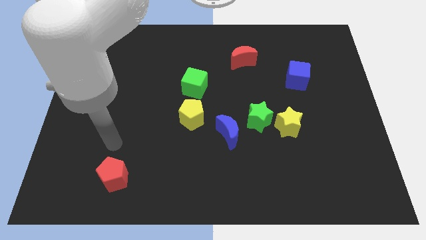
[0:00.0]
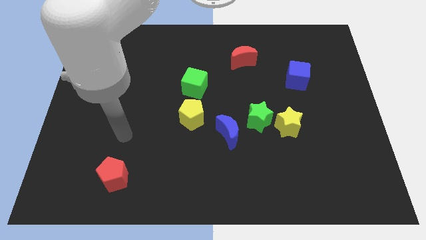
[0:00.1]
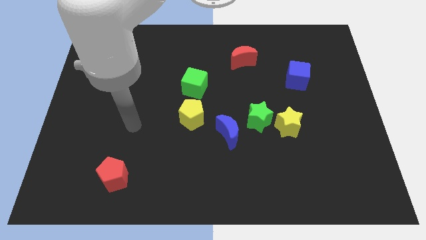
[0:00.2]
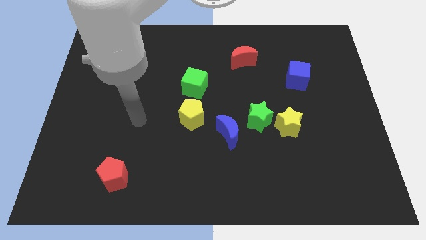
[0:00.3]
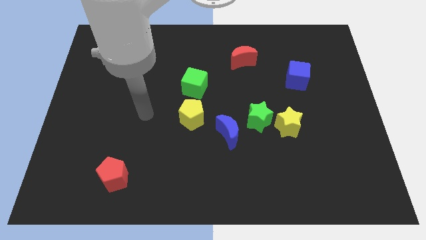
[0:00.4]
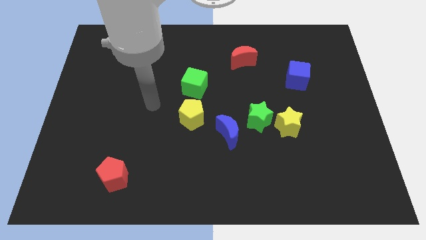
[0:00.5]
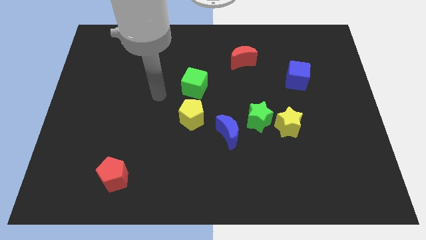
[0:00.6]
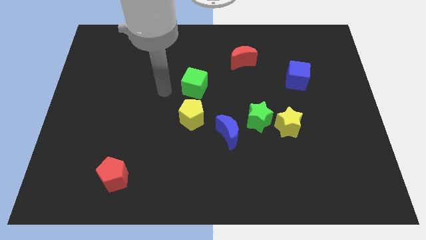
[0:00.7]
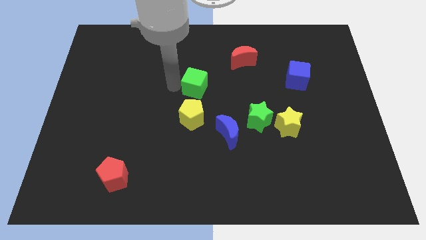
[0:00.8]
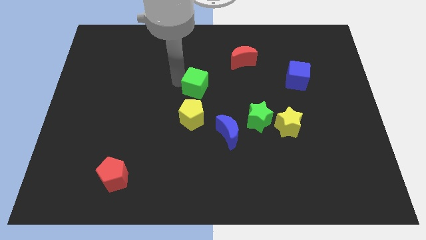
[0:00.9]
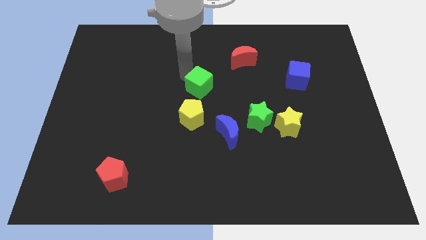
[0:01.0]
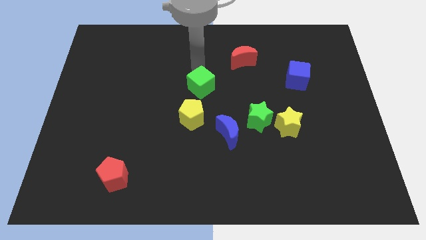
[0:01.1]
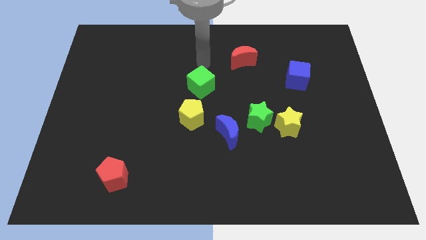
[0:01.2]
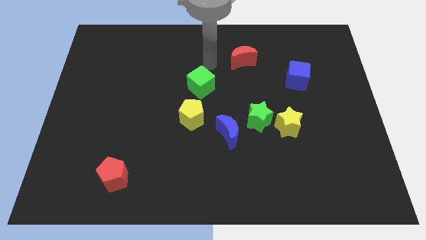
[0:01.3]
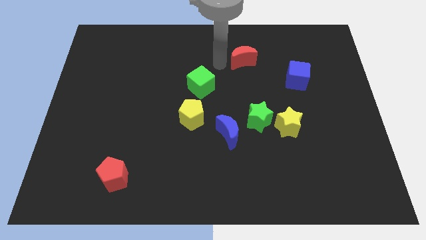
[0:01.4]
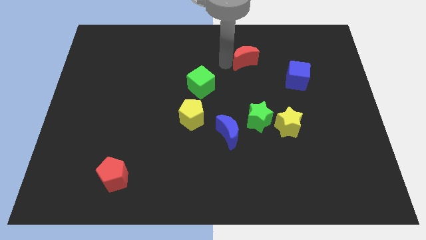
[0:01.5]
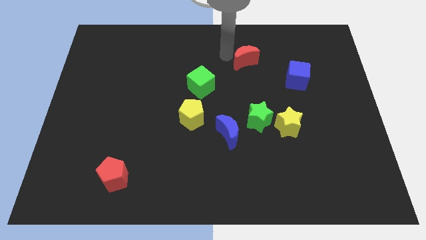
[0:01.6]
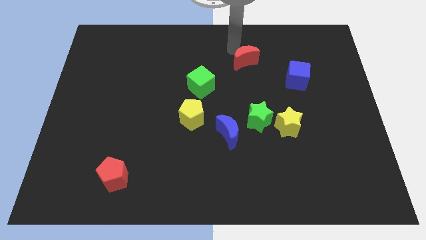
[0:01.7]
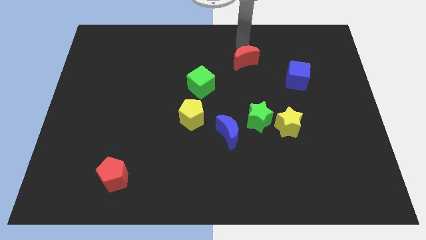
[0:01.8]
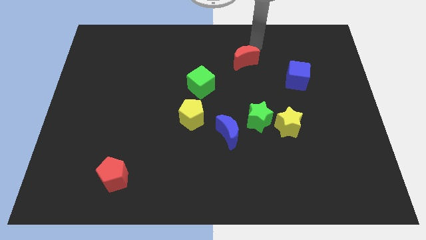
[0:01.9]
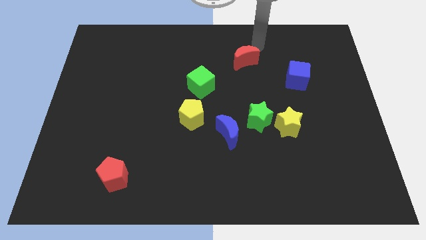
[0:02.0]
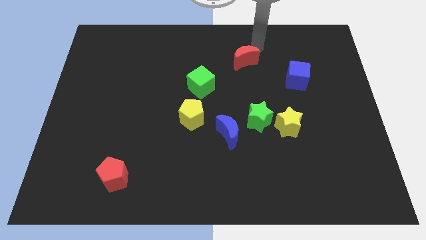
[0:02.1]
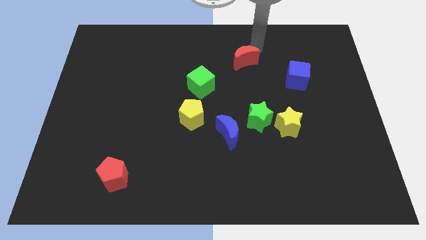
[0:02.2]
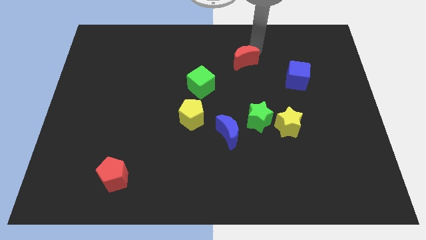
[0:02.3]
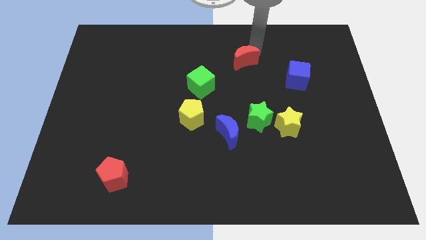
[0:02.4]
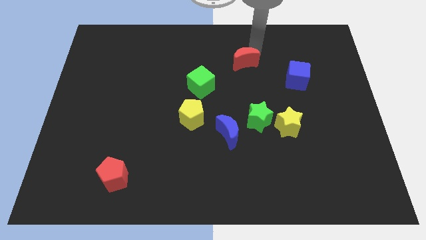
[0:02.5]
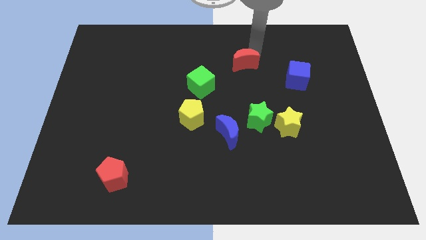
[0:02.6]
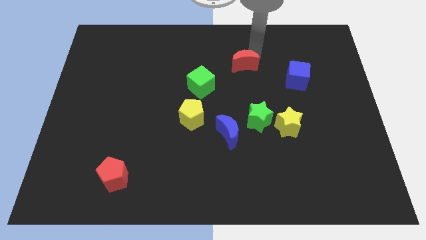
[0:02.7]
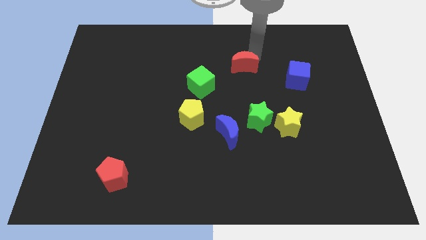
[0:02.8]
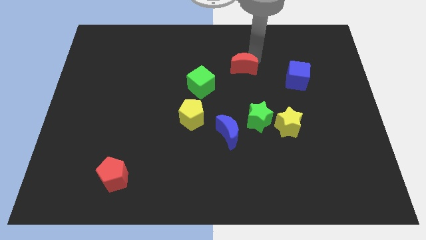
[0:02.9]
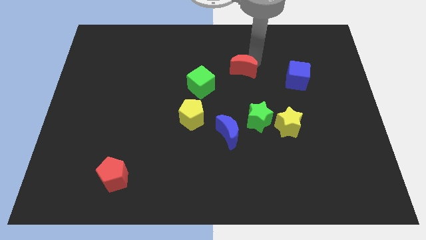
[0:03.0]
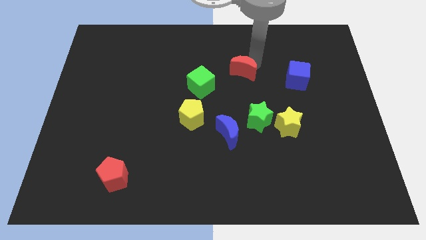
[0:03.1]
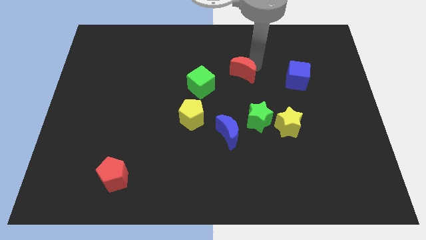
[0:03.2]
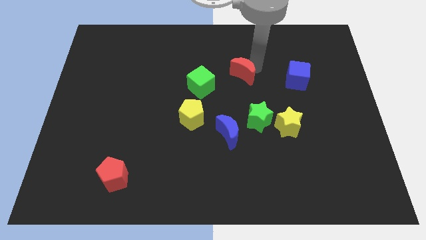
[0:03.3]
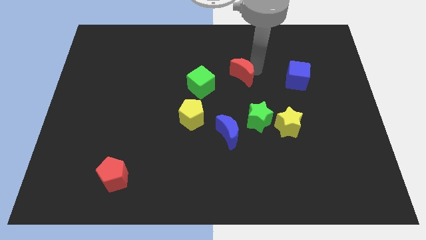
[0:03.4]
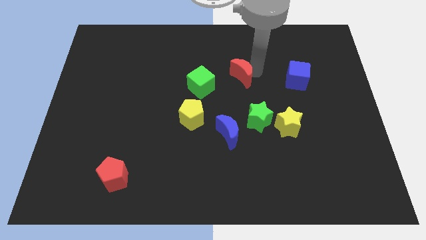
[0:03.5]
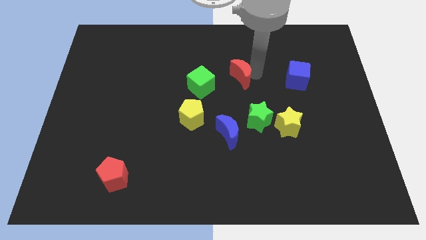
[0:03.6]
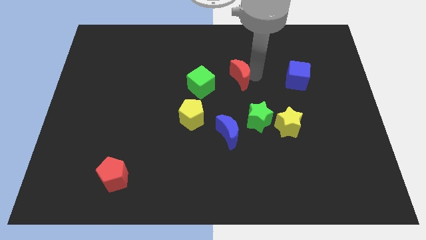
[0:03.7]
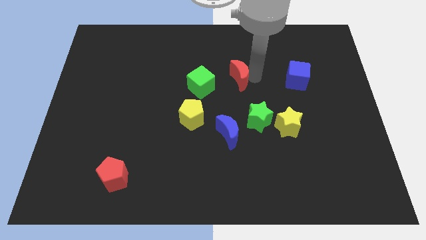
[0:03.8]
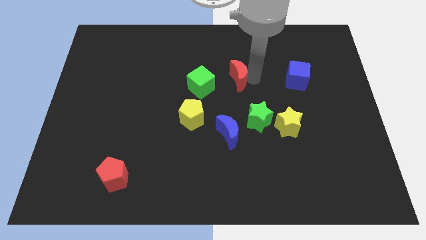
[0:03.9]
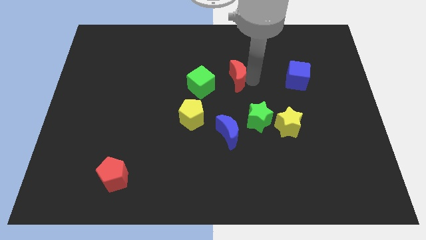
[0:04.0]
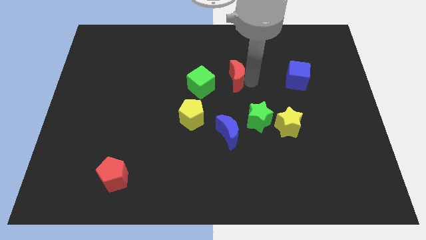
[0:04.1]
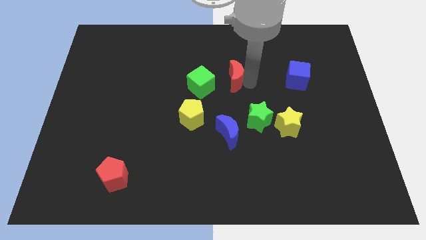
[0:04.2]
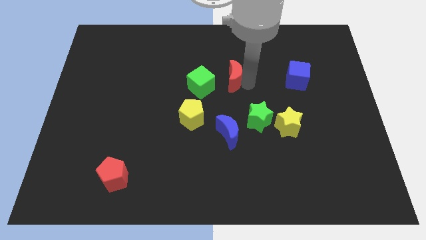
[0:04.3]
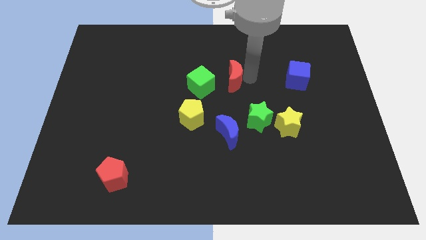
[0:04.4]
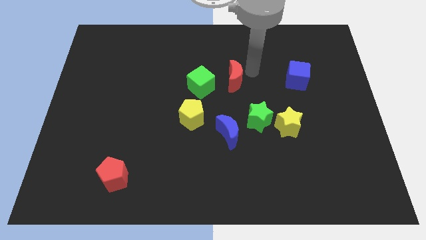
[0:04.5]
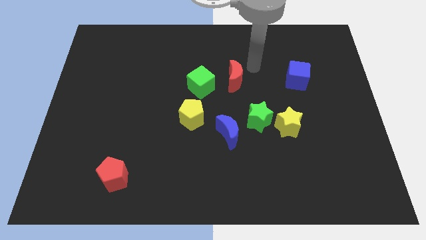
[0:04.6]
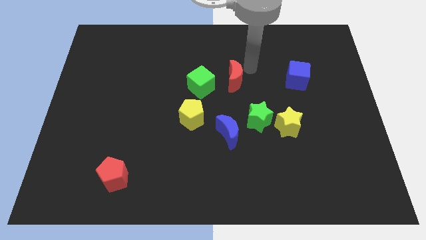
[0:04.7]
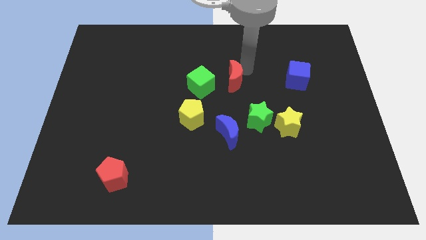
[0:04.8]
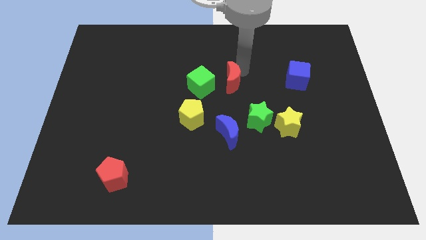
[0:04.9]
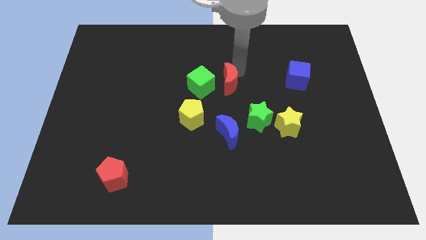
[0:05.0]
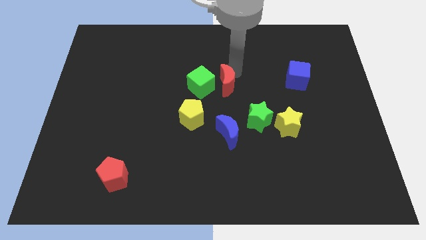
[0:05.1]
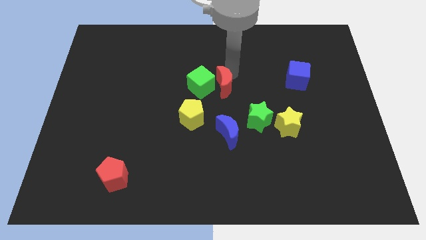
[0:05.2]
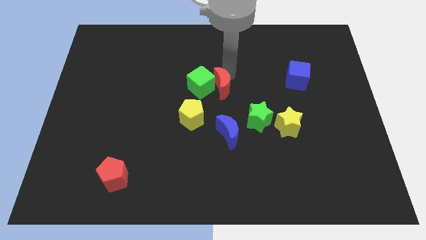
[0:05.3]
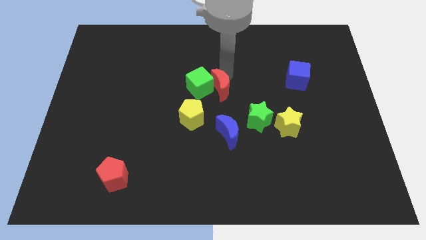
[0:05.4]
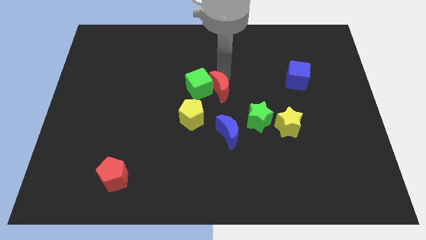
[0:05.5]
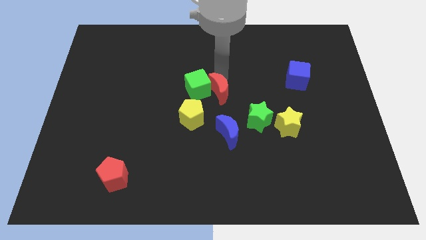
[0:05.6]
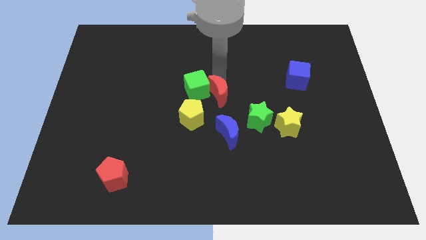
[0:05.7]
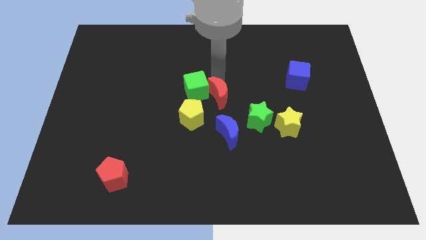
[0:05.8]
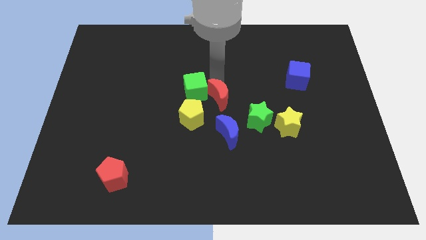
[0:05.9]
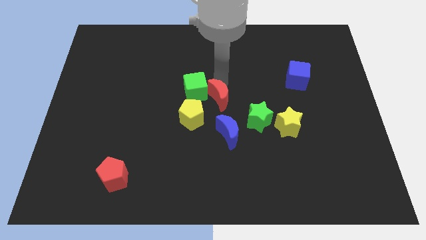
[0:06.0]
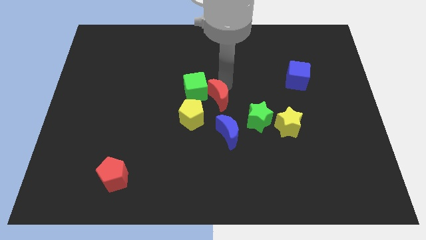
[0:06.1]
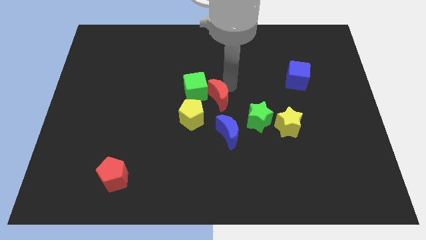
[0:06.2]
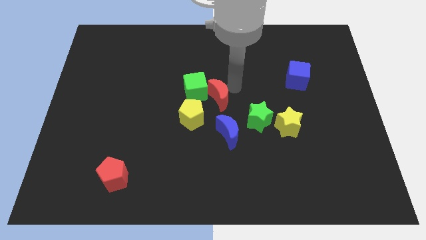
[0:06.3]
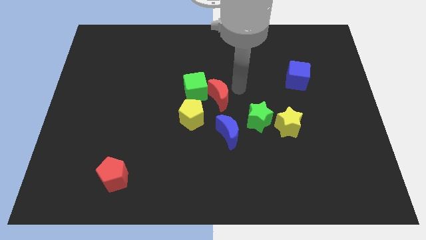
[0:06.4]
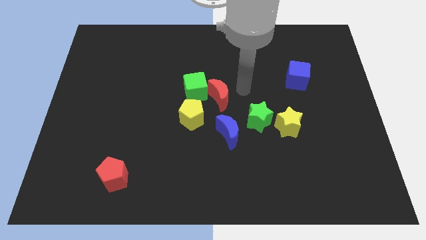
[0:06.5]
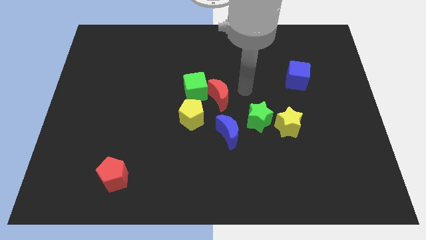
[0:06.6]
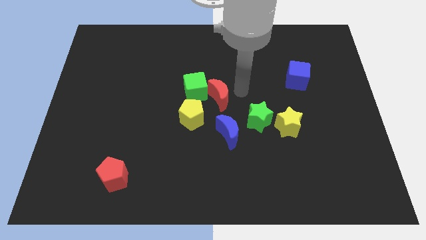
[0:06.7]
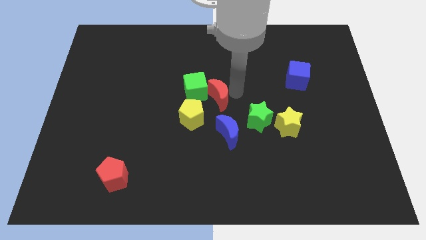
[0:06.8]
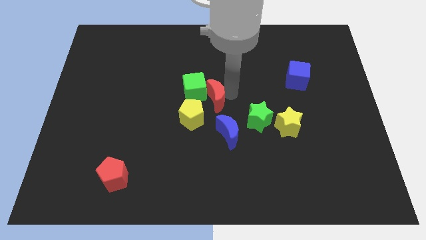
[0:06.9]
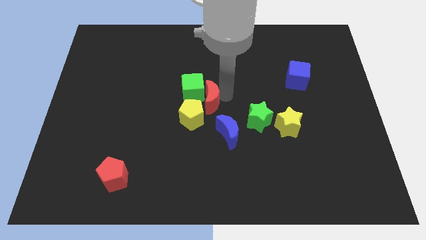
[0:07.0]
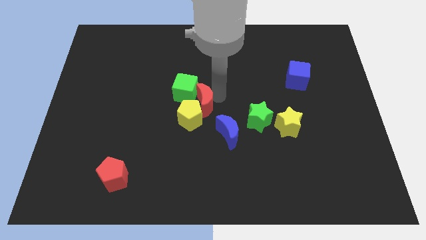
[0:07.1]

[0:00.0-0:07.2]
push the red moon to the yellow pentagon
